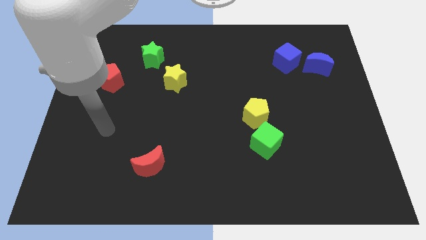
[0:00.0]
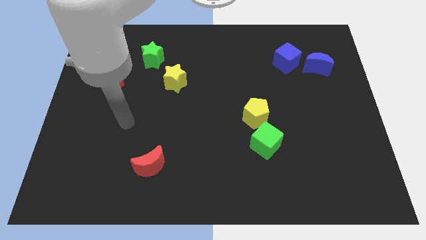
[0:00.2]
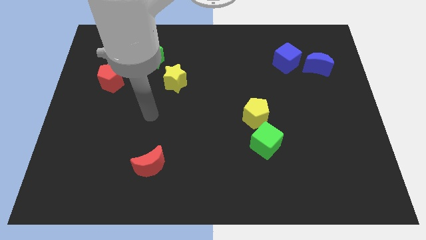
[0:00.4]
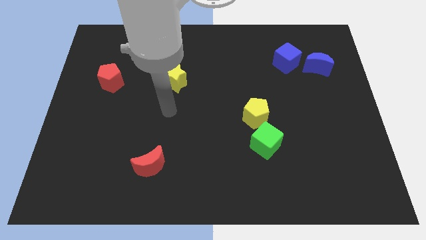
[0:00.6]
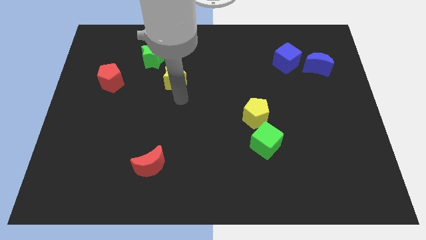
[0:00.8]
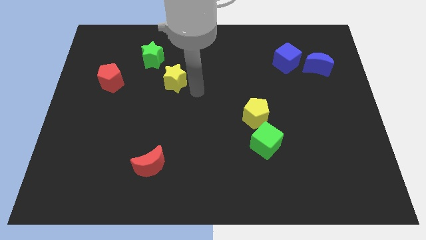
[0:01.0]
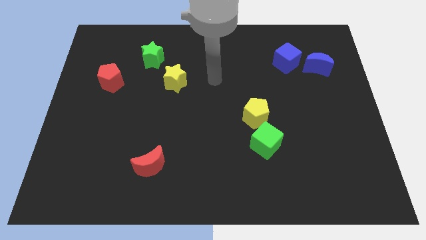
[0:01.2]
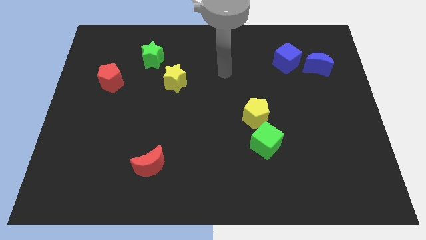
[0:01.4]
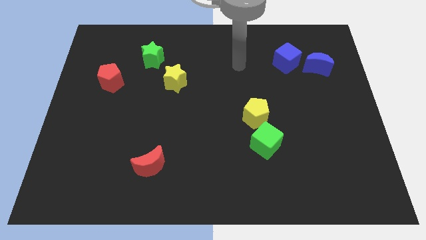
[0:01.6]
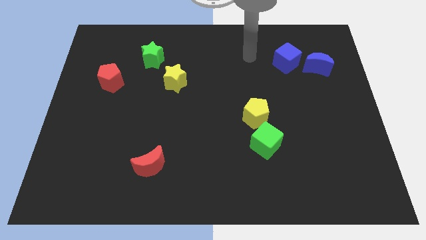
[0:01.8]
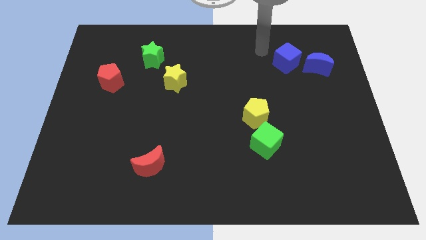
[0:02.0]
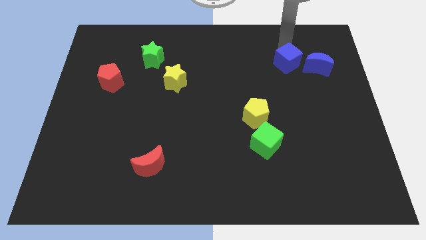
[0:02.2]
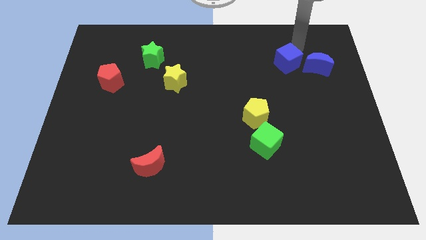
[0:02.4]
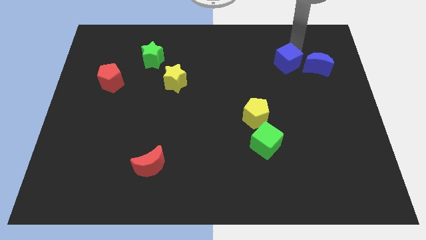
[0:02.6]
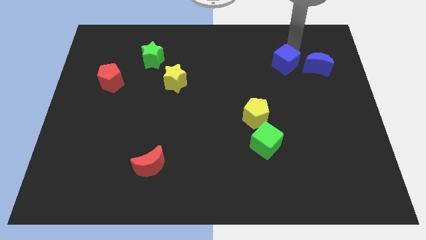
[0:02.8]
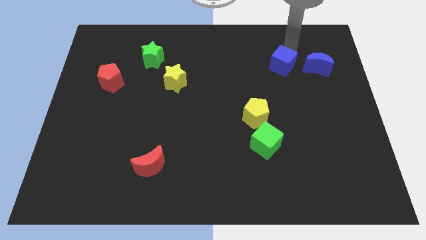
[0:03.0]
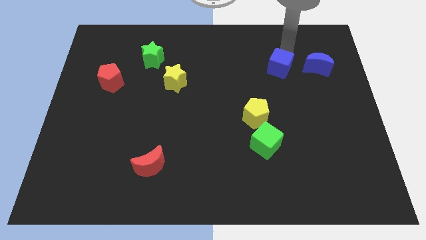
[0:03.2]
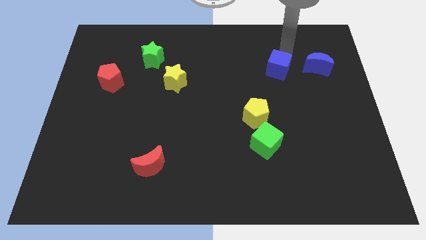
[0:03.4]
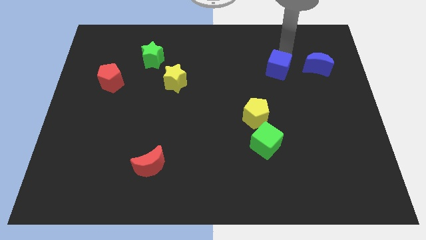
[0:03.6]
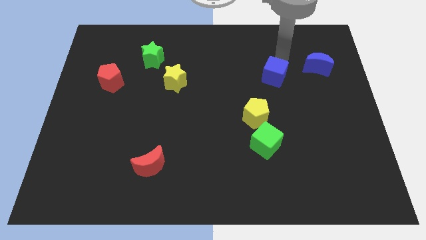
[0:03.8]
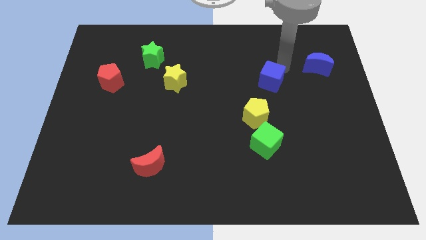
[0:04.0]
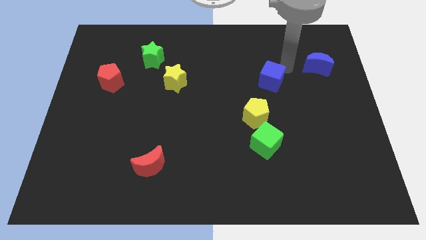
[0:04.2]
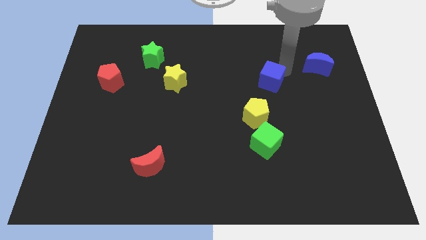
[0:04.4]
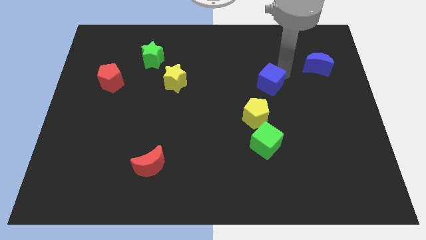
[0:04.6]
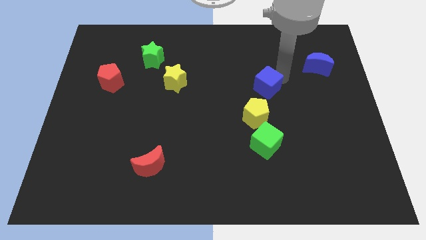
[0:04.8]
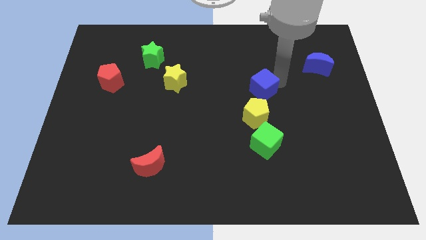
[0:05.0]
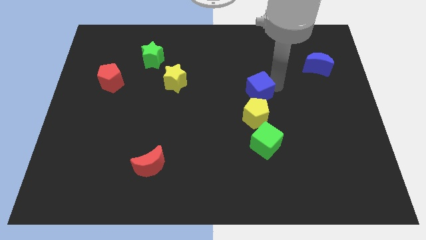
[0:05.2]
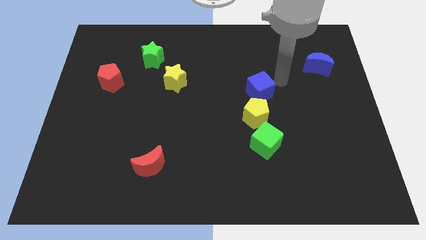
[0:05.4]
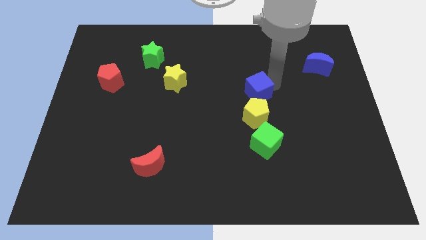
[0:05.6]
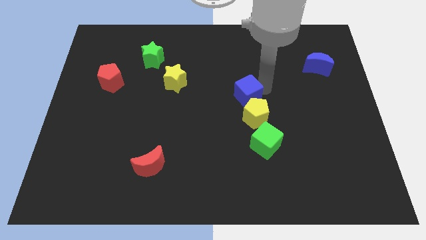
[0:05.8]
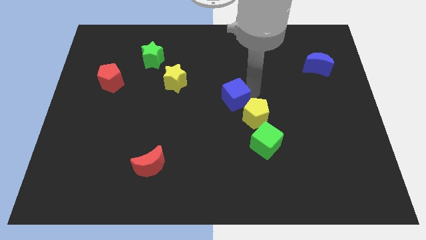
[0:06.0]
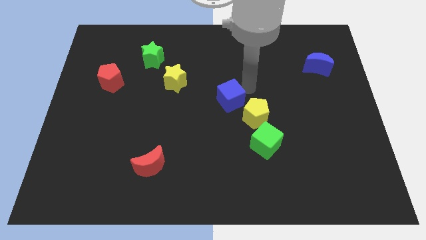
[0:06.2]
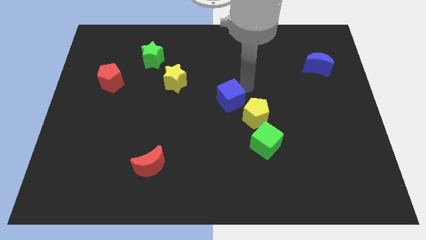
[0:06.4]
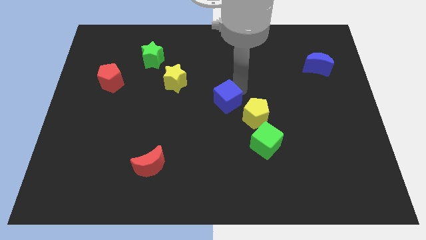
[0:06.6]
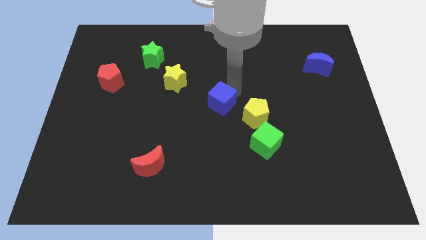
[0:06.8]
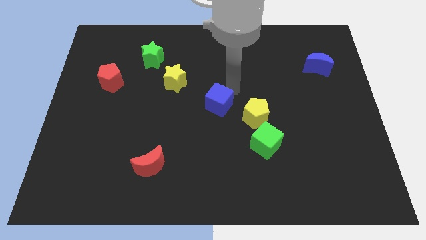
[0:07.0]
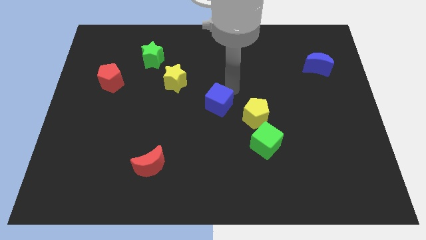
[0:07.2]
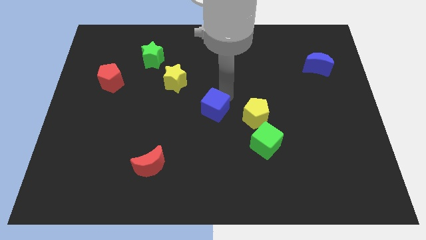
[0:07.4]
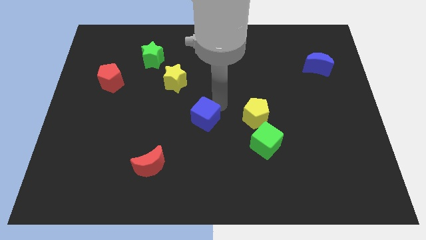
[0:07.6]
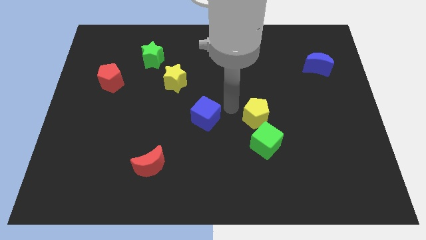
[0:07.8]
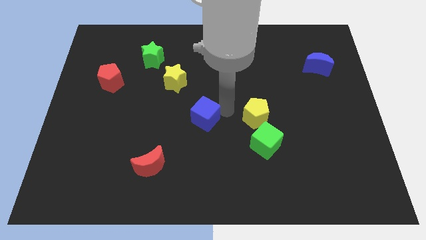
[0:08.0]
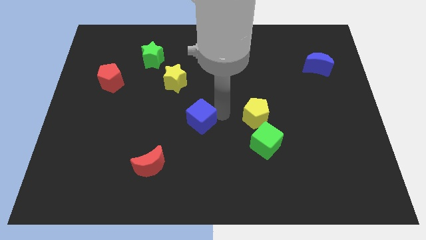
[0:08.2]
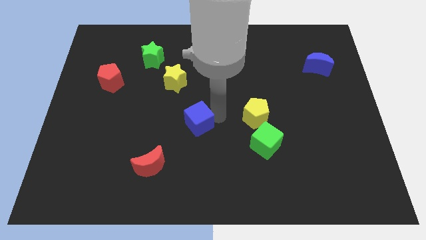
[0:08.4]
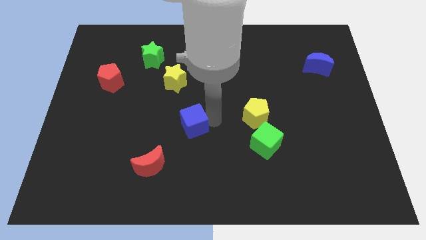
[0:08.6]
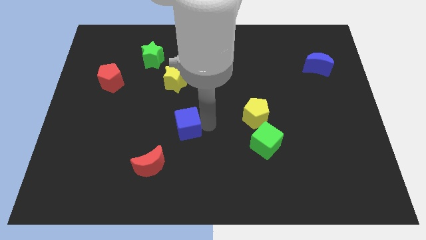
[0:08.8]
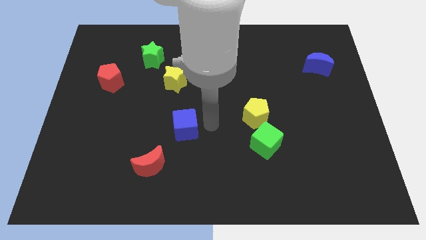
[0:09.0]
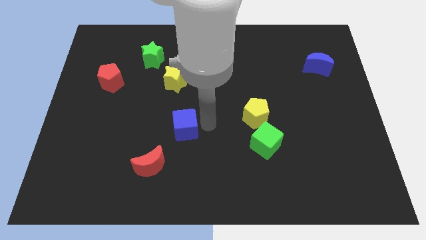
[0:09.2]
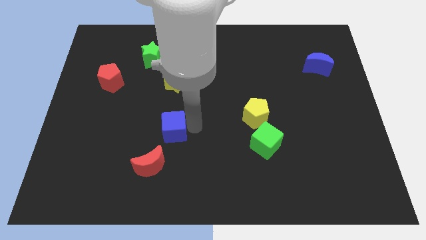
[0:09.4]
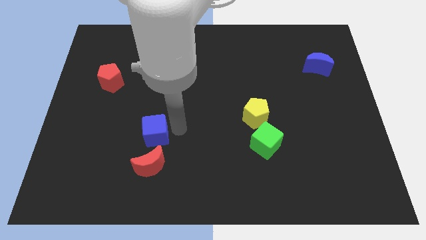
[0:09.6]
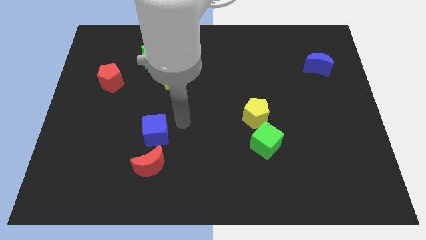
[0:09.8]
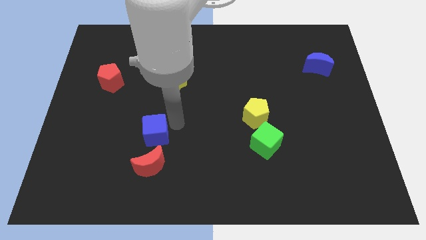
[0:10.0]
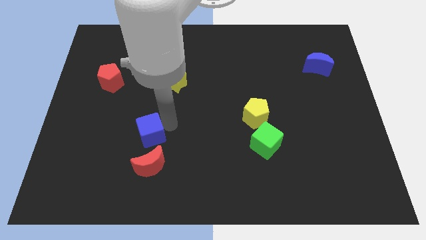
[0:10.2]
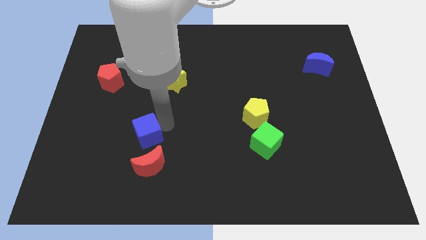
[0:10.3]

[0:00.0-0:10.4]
put the blue cube diagonally up and to the left of the red moon

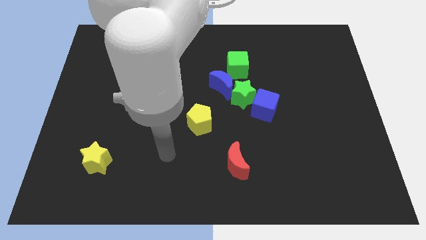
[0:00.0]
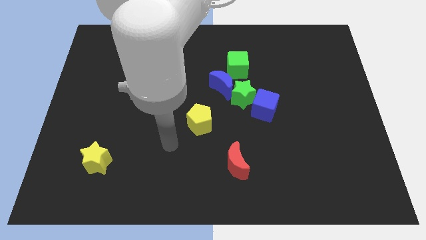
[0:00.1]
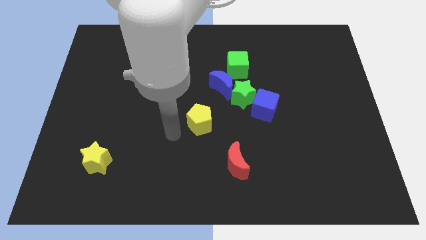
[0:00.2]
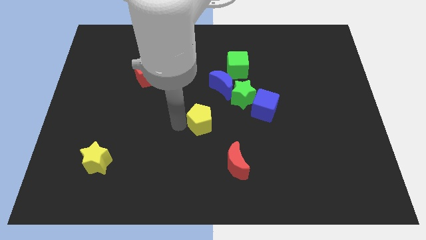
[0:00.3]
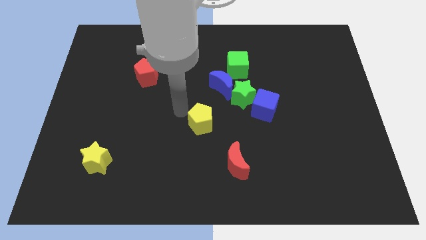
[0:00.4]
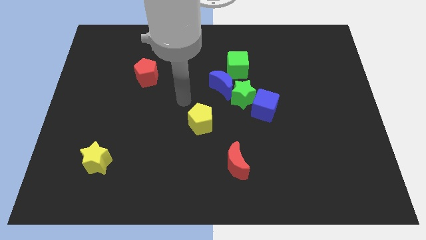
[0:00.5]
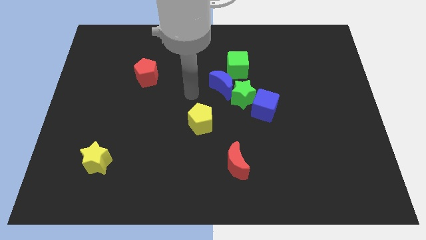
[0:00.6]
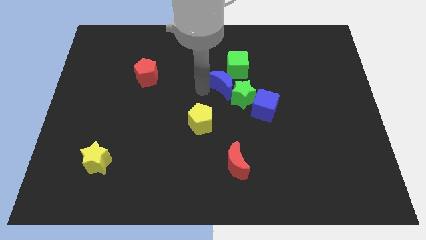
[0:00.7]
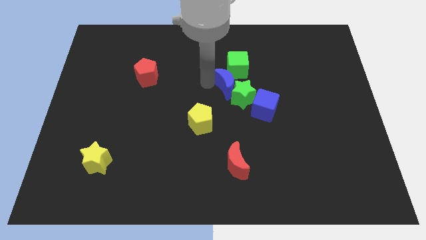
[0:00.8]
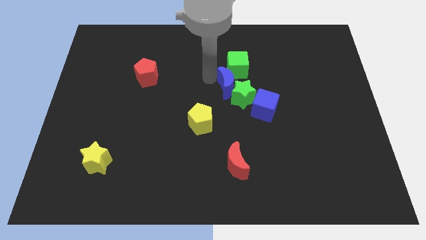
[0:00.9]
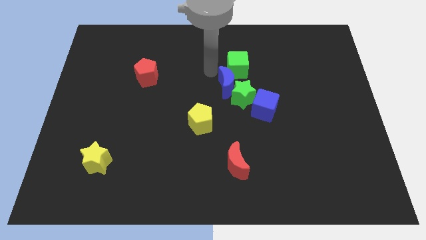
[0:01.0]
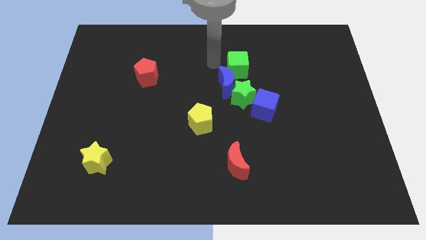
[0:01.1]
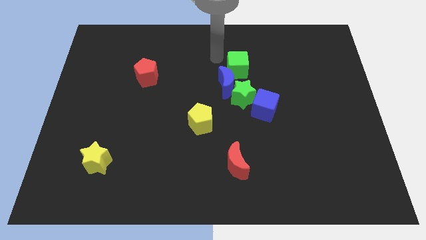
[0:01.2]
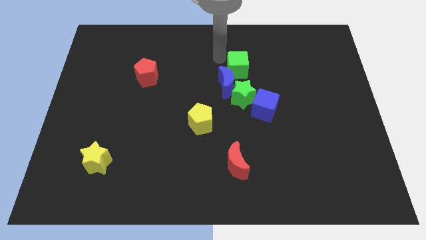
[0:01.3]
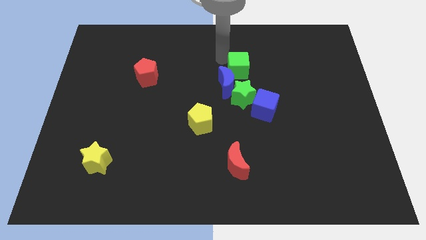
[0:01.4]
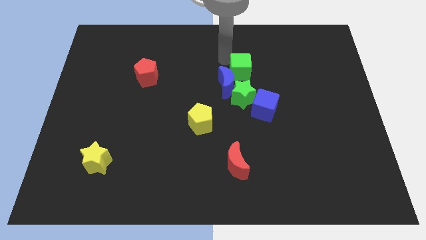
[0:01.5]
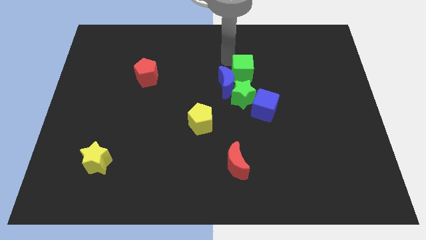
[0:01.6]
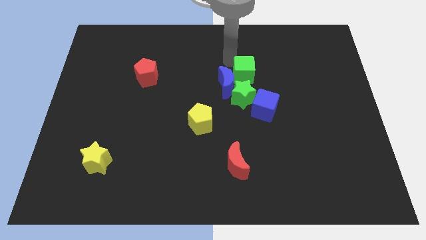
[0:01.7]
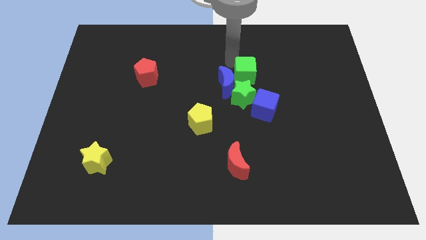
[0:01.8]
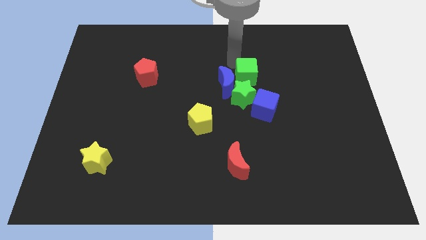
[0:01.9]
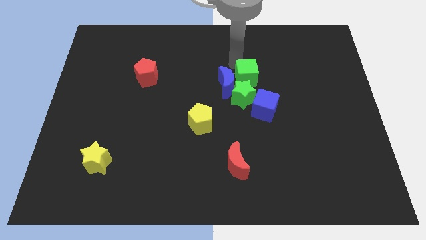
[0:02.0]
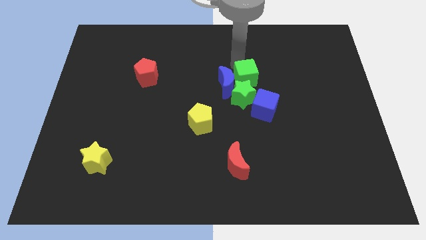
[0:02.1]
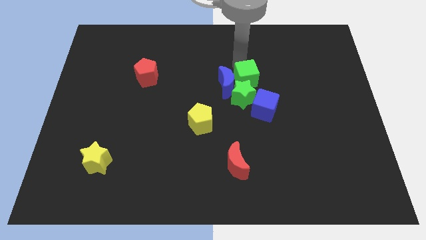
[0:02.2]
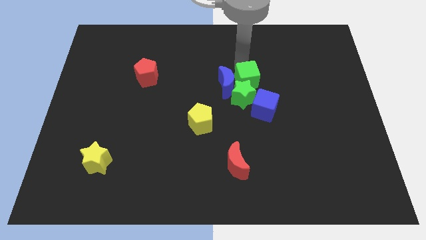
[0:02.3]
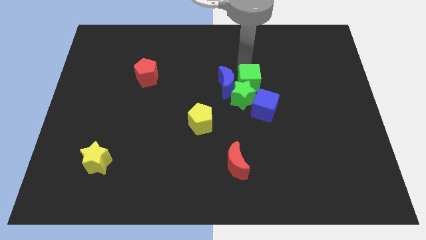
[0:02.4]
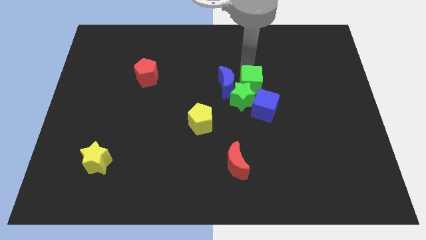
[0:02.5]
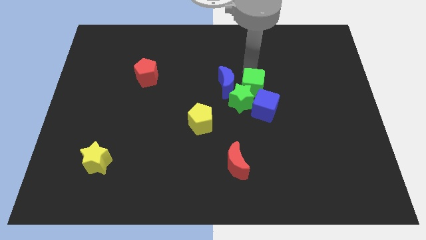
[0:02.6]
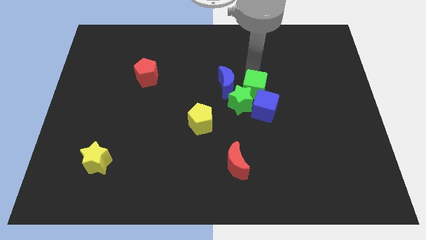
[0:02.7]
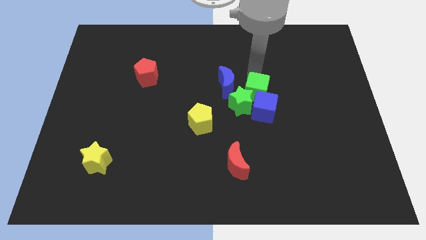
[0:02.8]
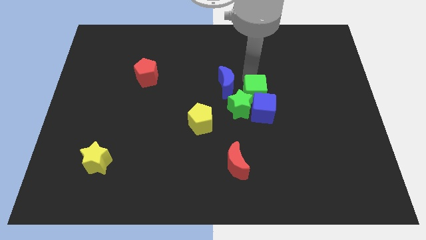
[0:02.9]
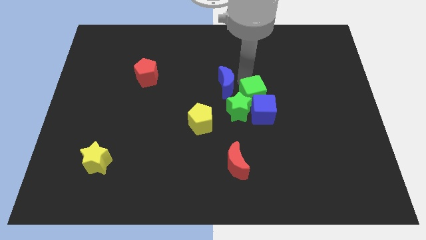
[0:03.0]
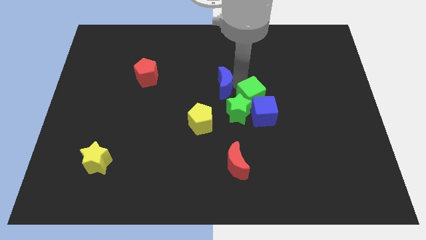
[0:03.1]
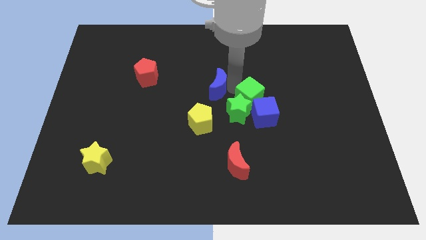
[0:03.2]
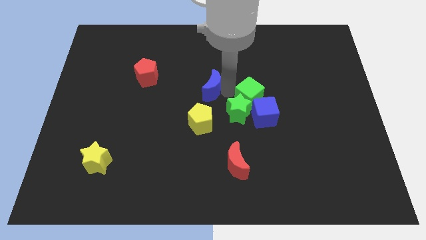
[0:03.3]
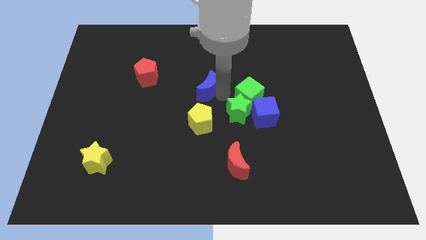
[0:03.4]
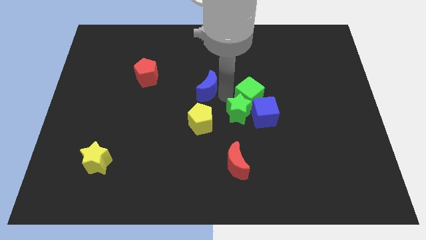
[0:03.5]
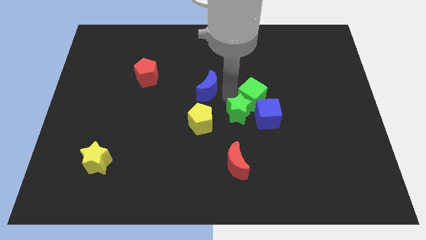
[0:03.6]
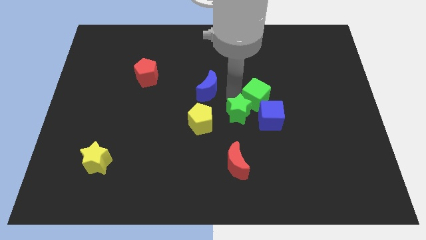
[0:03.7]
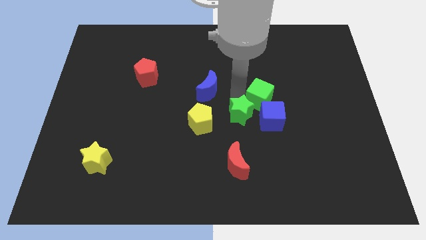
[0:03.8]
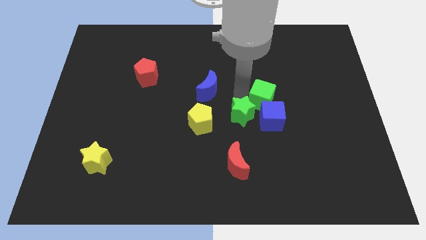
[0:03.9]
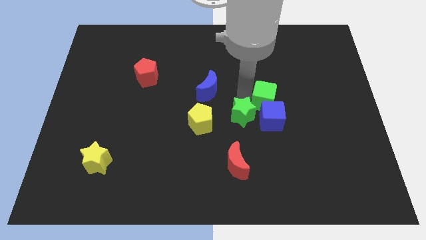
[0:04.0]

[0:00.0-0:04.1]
put the green cube to the top right of the blue cube
